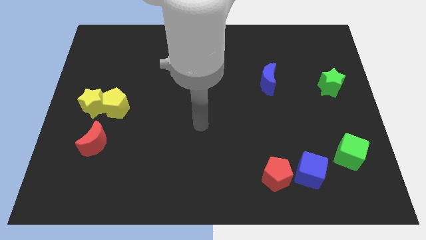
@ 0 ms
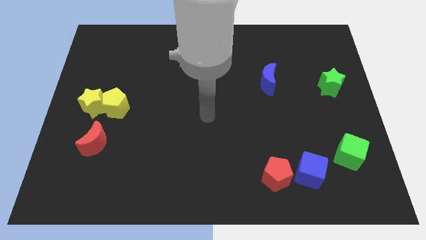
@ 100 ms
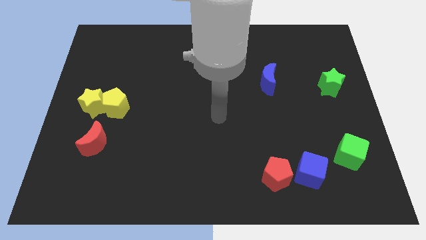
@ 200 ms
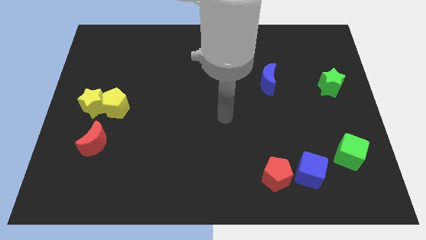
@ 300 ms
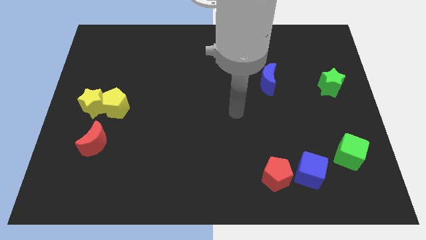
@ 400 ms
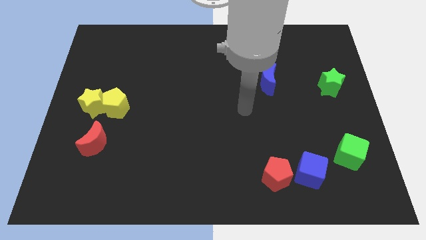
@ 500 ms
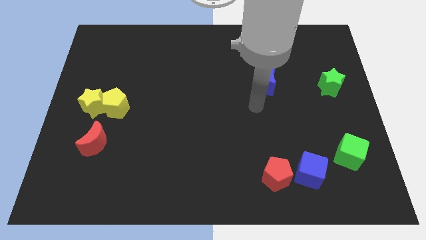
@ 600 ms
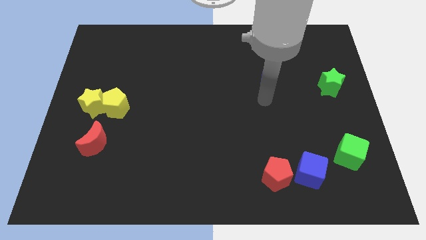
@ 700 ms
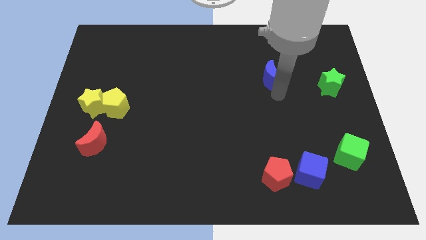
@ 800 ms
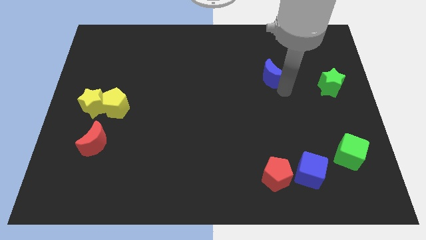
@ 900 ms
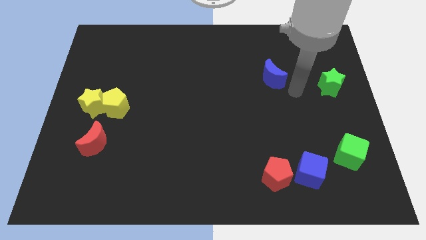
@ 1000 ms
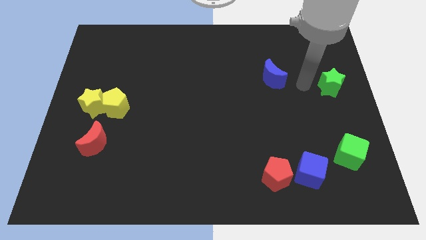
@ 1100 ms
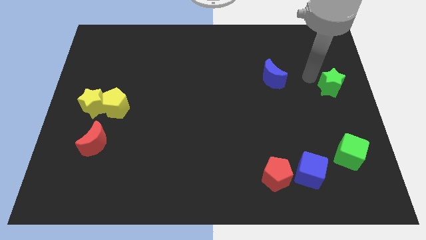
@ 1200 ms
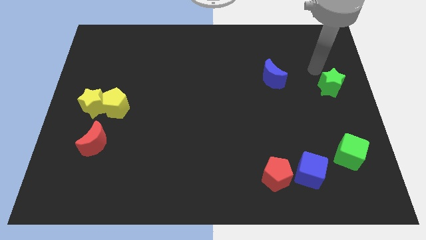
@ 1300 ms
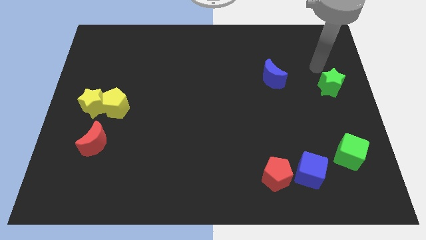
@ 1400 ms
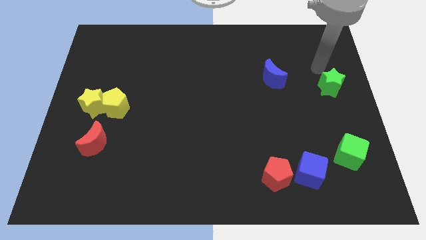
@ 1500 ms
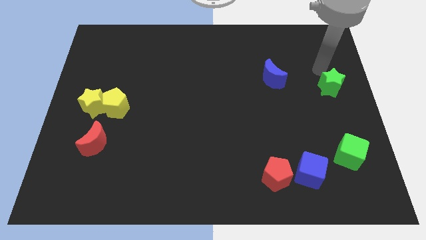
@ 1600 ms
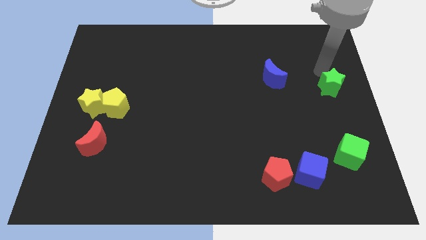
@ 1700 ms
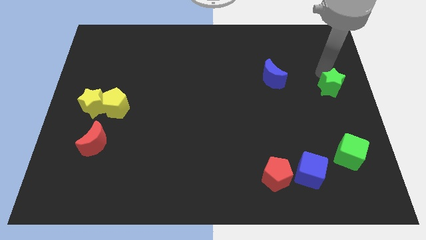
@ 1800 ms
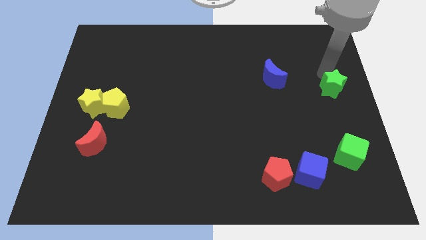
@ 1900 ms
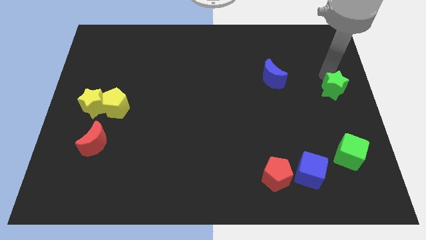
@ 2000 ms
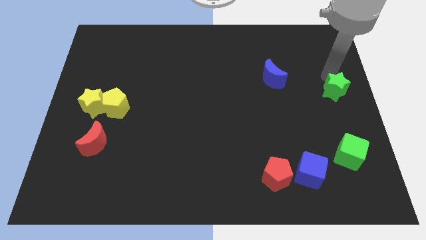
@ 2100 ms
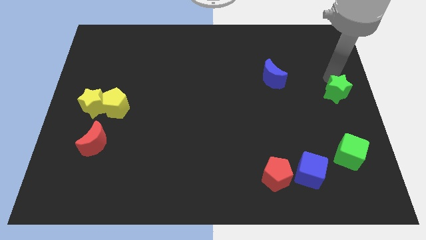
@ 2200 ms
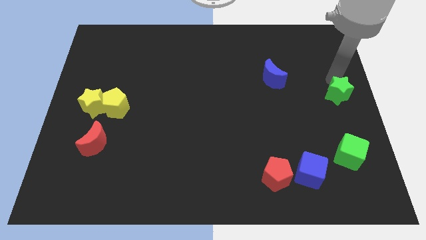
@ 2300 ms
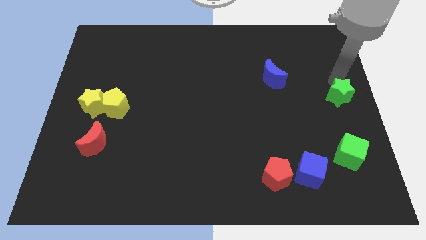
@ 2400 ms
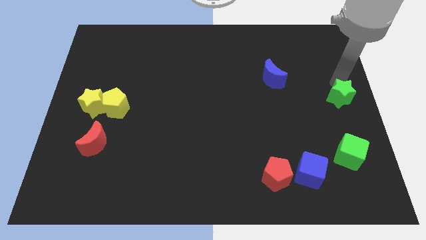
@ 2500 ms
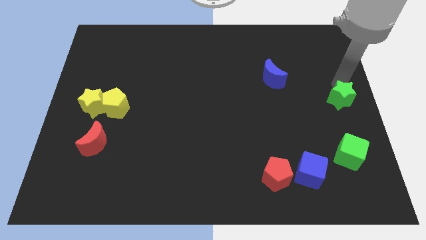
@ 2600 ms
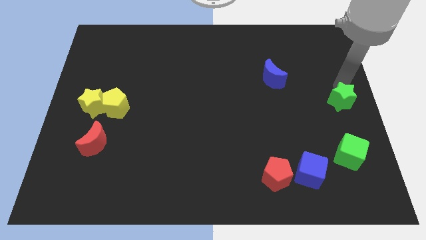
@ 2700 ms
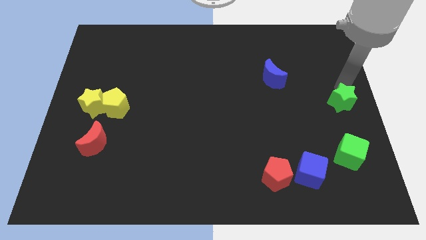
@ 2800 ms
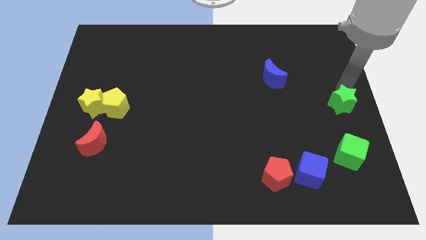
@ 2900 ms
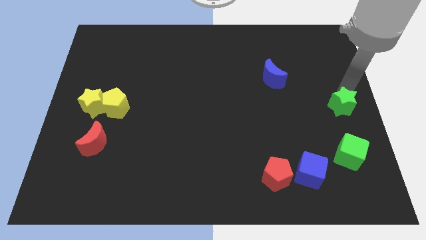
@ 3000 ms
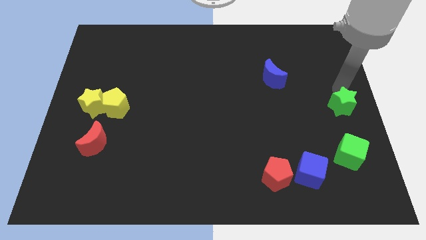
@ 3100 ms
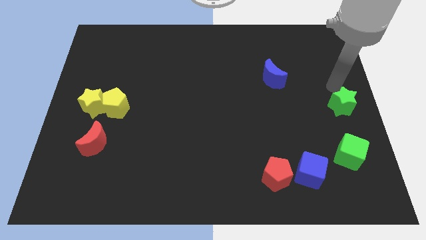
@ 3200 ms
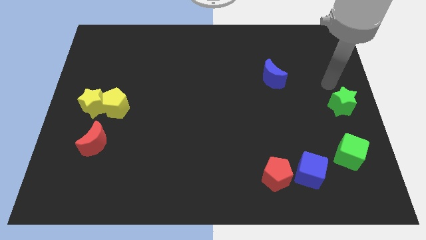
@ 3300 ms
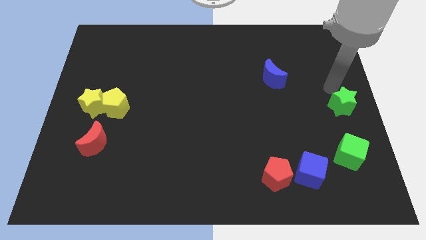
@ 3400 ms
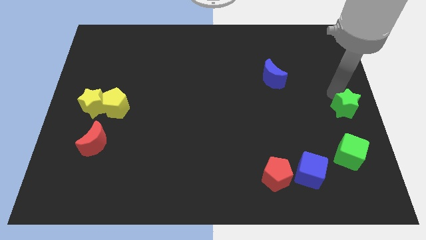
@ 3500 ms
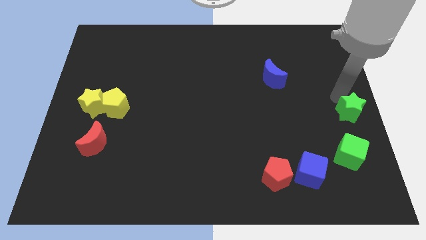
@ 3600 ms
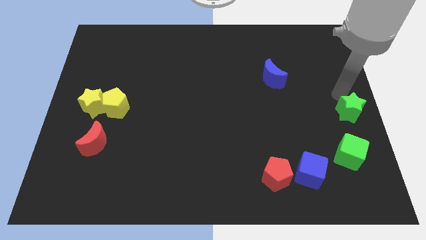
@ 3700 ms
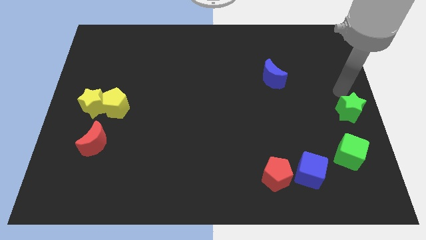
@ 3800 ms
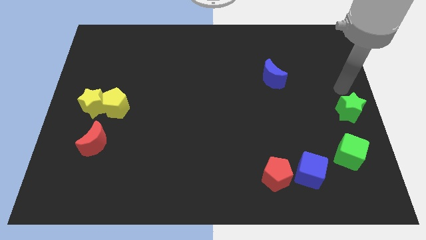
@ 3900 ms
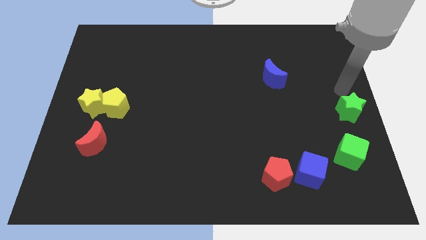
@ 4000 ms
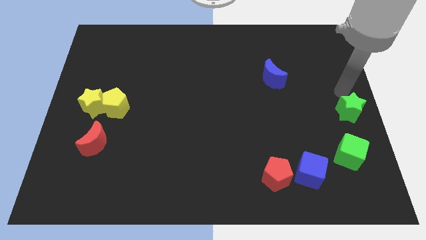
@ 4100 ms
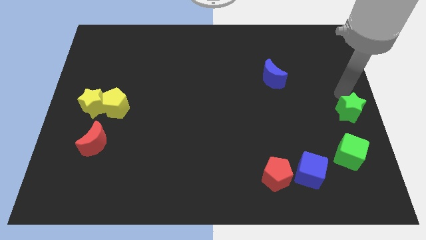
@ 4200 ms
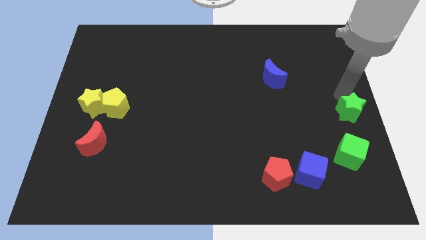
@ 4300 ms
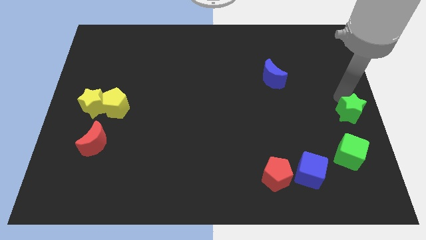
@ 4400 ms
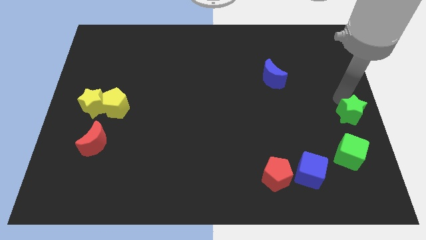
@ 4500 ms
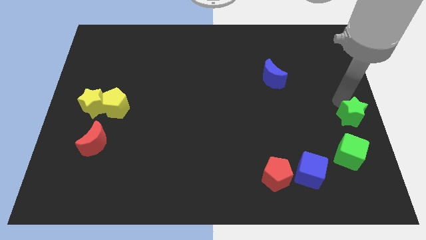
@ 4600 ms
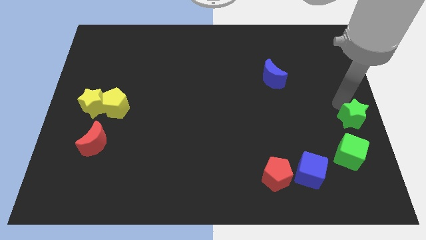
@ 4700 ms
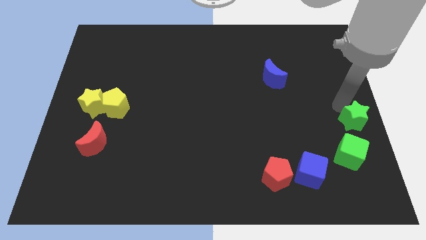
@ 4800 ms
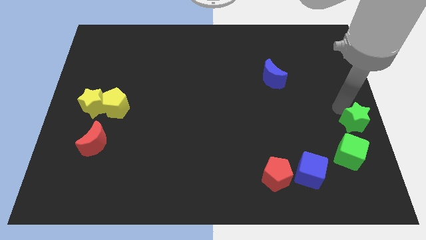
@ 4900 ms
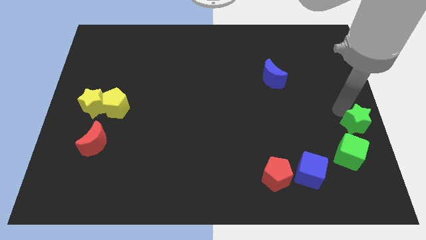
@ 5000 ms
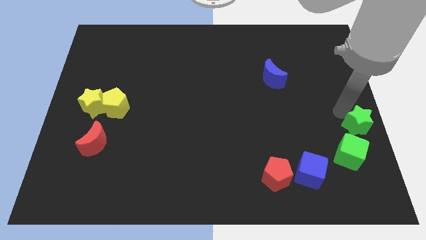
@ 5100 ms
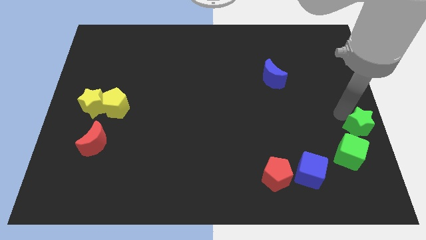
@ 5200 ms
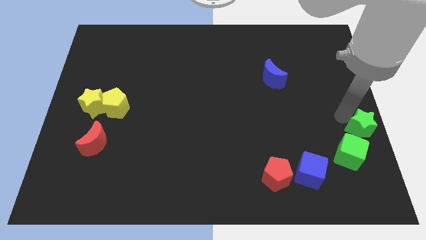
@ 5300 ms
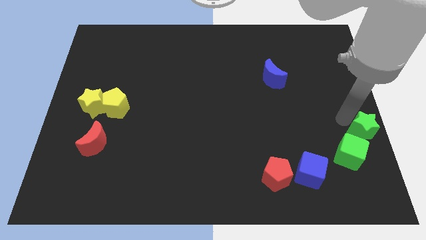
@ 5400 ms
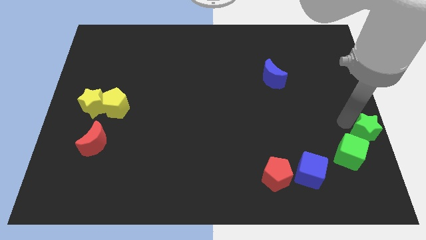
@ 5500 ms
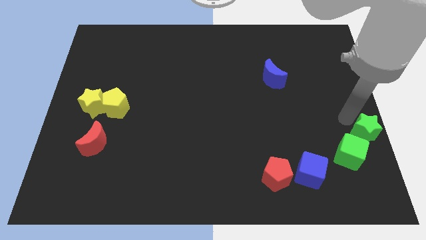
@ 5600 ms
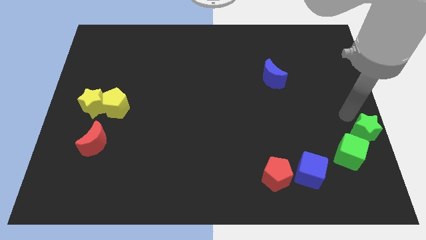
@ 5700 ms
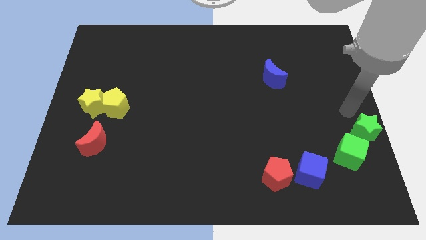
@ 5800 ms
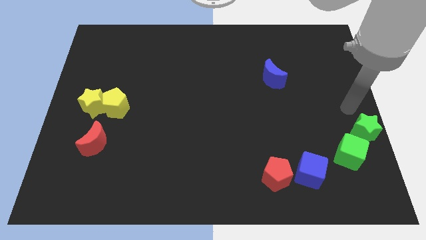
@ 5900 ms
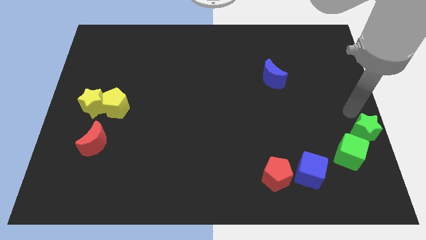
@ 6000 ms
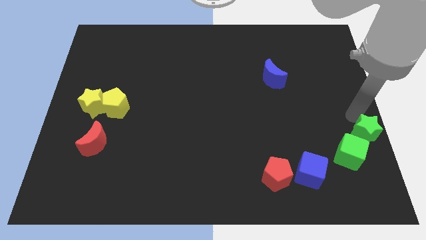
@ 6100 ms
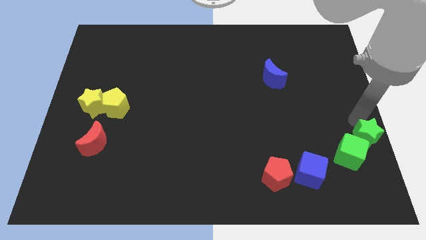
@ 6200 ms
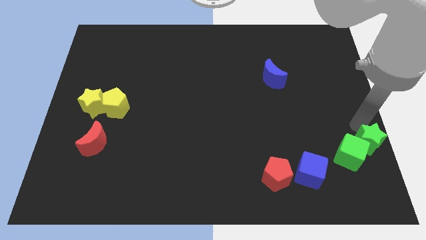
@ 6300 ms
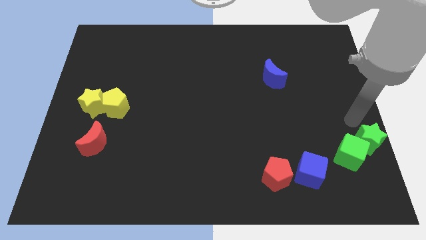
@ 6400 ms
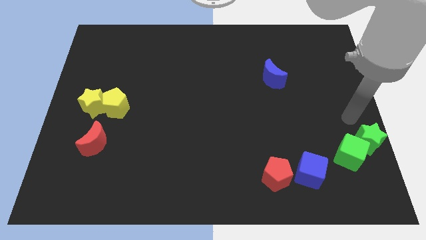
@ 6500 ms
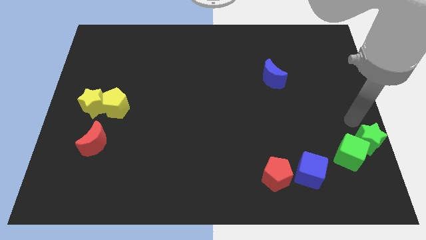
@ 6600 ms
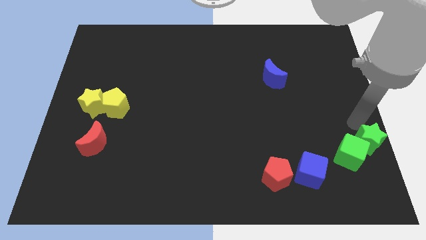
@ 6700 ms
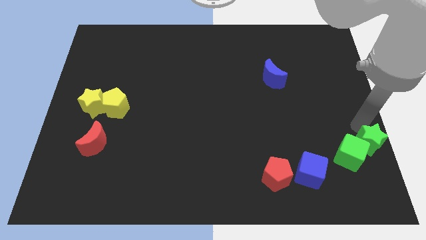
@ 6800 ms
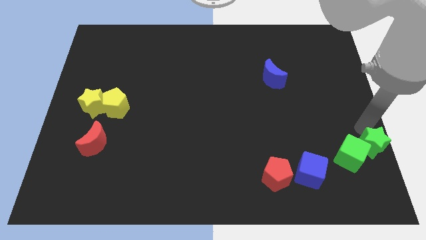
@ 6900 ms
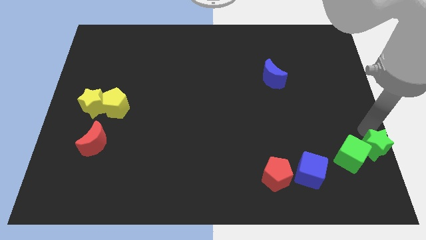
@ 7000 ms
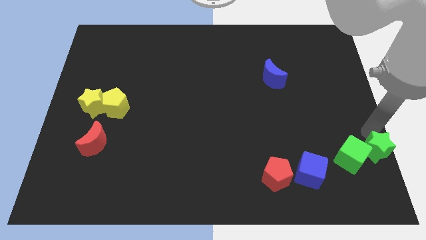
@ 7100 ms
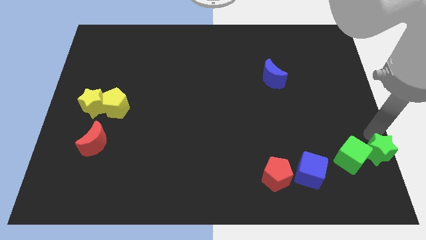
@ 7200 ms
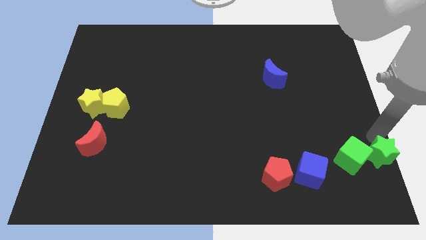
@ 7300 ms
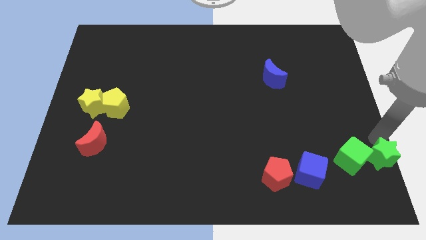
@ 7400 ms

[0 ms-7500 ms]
push the green star to the bottom right corner
